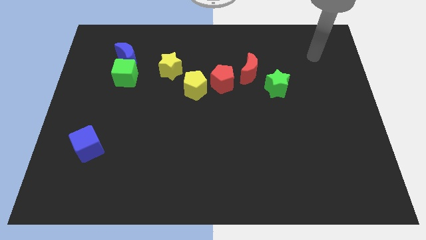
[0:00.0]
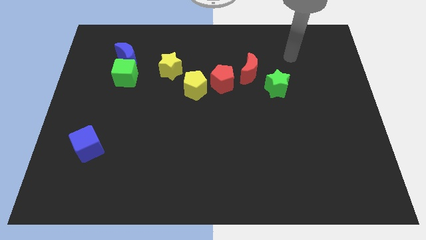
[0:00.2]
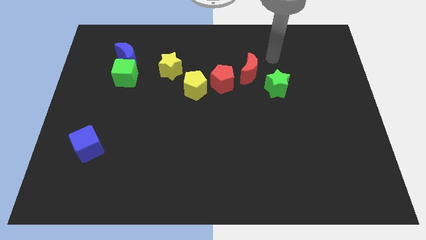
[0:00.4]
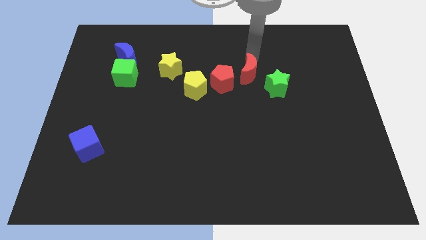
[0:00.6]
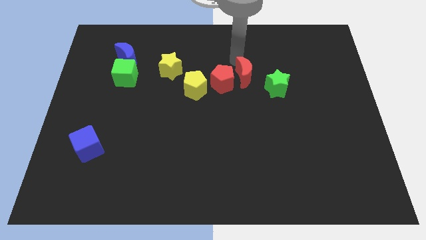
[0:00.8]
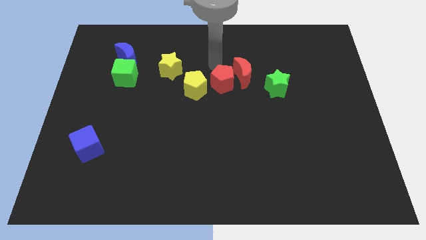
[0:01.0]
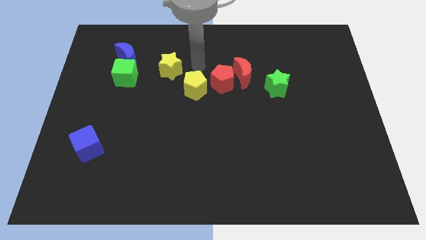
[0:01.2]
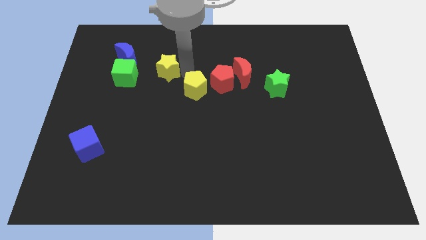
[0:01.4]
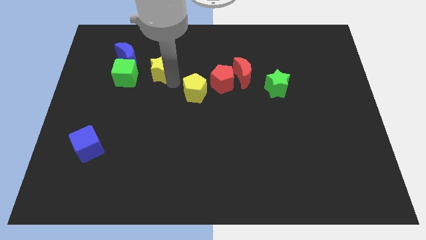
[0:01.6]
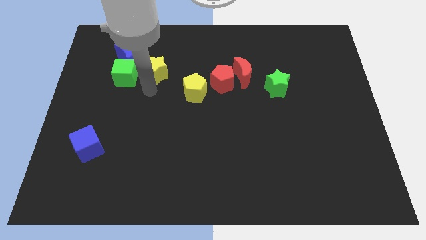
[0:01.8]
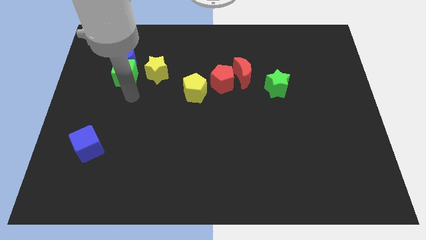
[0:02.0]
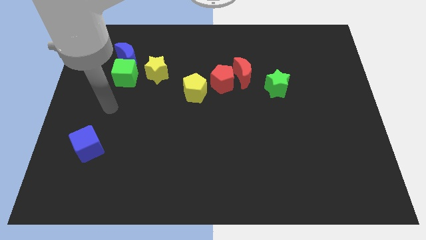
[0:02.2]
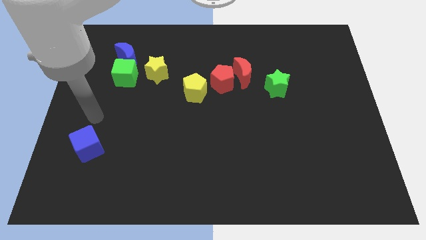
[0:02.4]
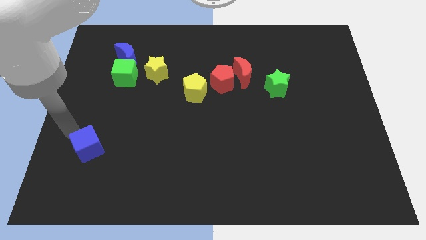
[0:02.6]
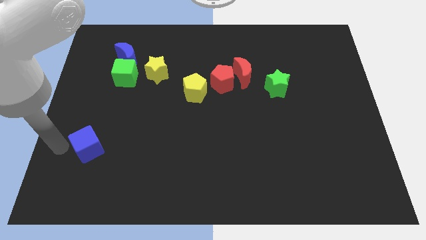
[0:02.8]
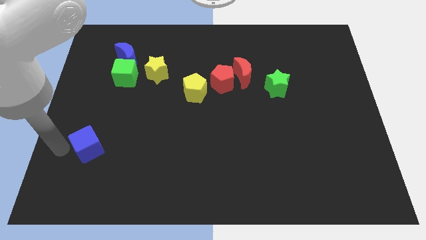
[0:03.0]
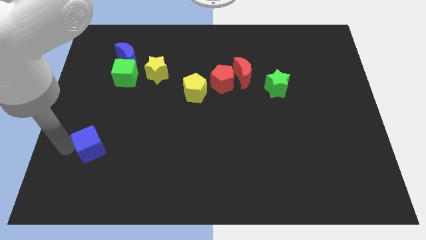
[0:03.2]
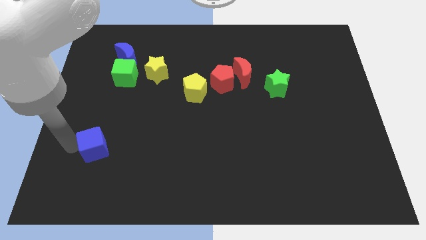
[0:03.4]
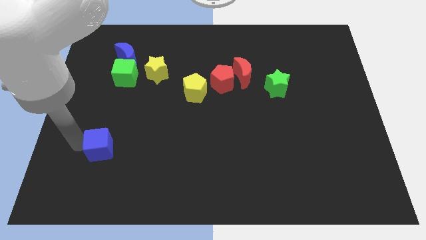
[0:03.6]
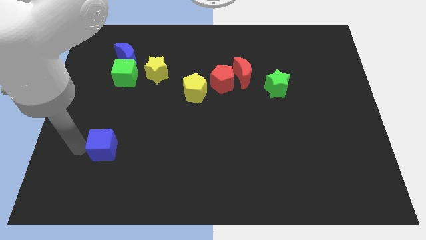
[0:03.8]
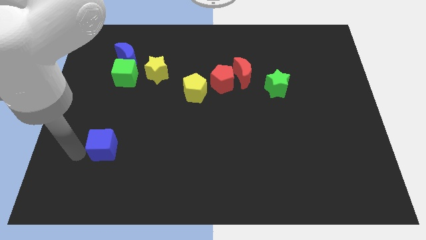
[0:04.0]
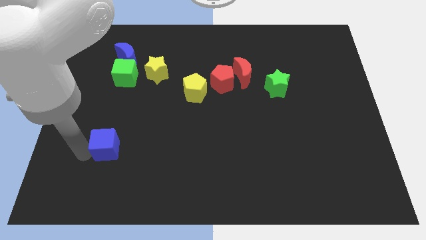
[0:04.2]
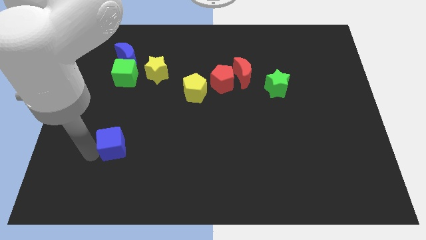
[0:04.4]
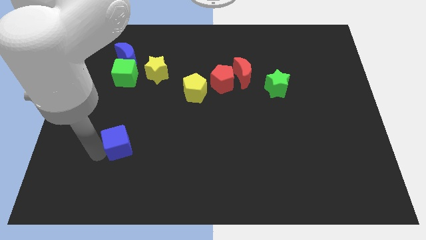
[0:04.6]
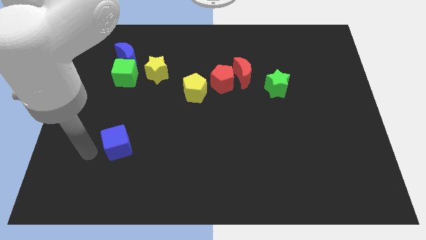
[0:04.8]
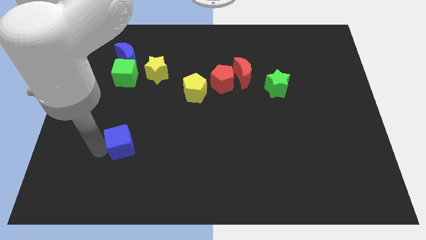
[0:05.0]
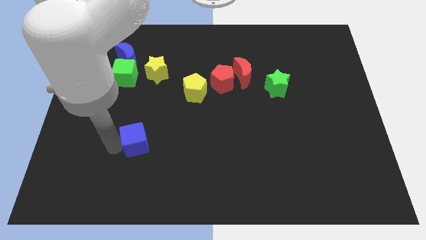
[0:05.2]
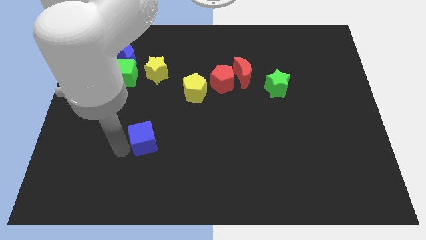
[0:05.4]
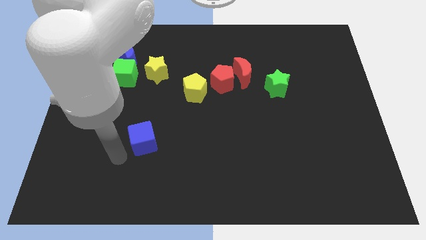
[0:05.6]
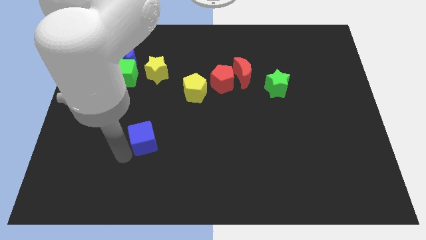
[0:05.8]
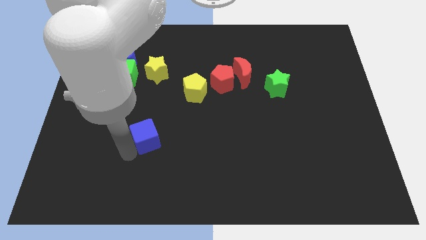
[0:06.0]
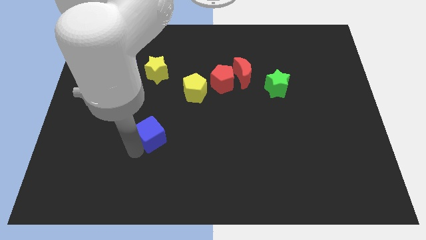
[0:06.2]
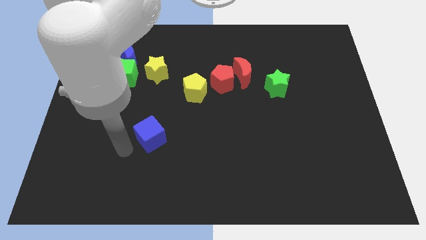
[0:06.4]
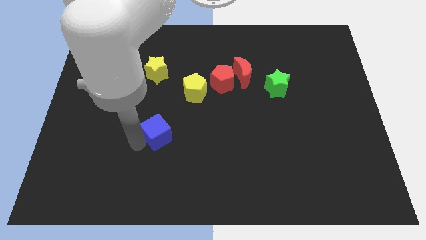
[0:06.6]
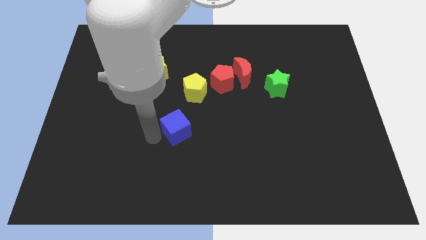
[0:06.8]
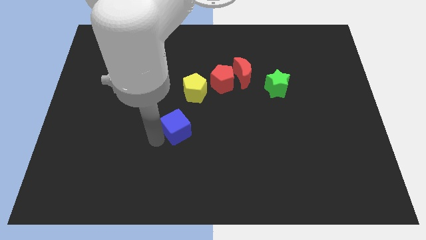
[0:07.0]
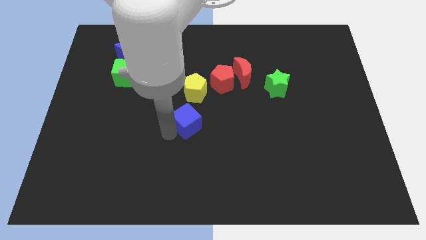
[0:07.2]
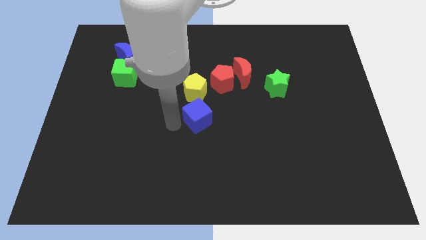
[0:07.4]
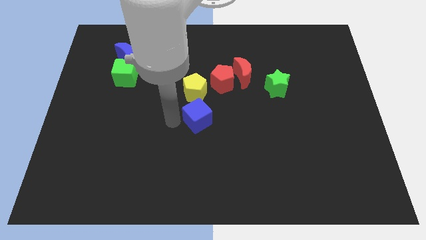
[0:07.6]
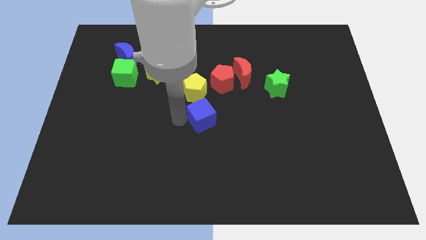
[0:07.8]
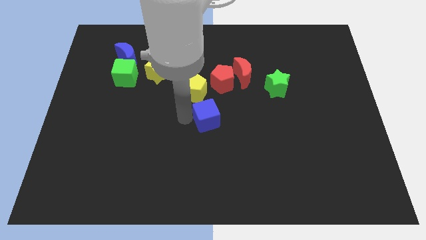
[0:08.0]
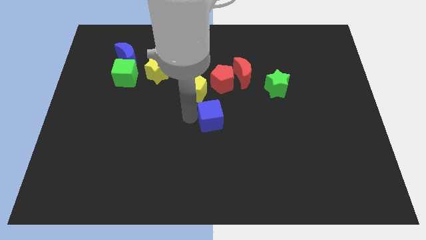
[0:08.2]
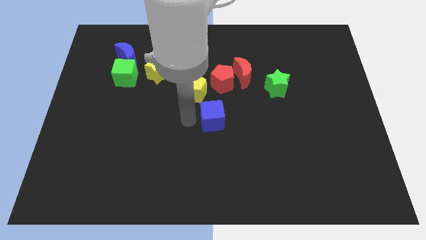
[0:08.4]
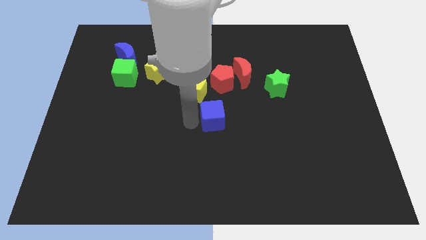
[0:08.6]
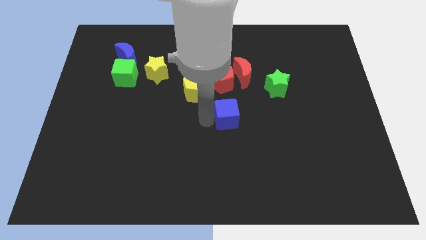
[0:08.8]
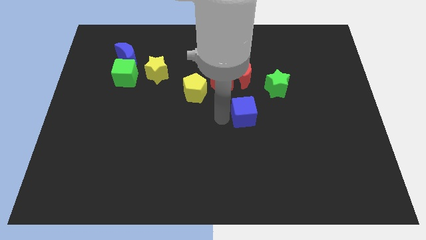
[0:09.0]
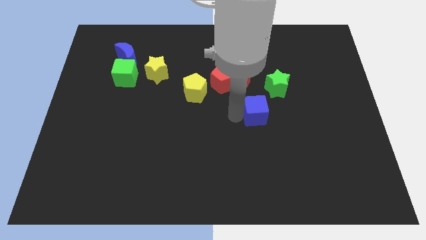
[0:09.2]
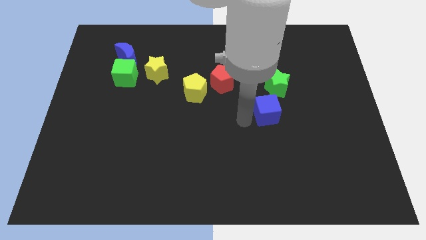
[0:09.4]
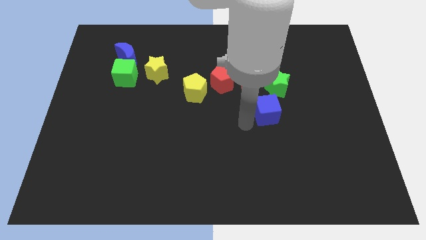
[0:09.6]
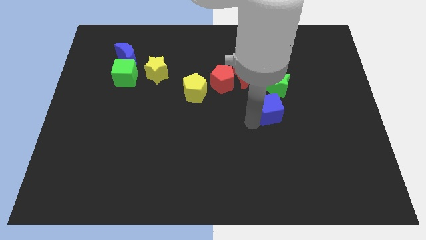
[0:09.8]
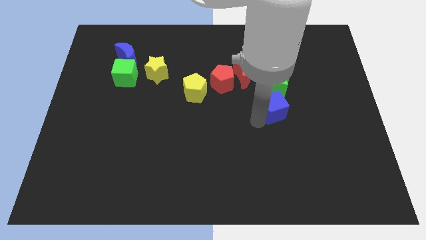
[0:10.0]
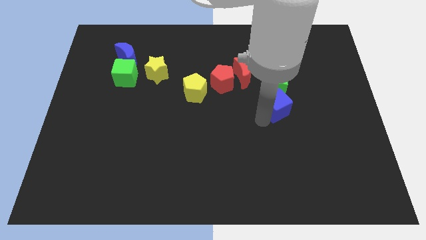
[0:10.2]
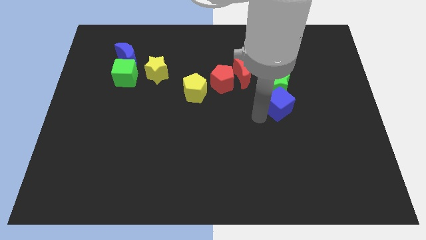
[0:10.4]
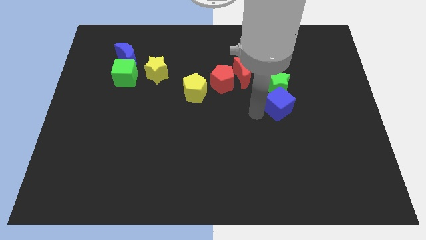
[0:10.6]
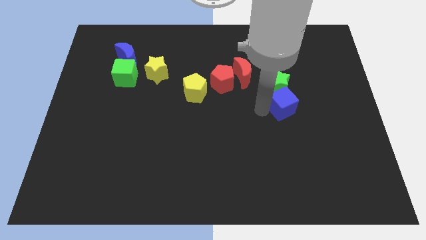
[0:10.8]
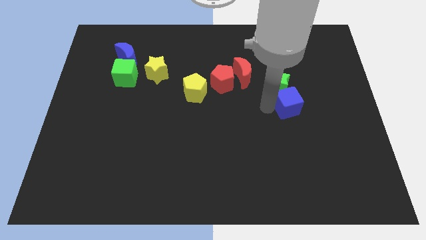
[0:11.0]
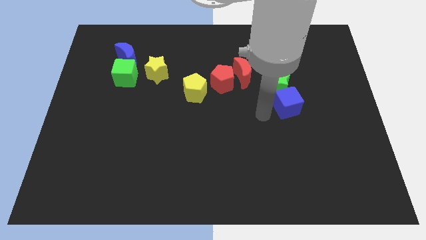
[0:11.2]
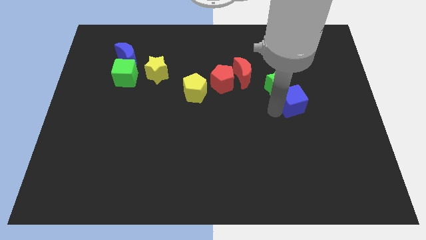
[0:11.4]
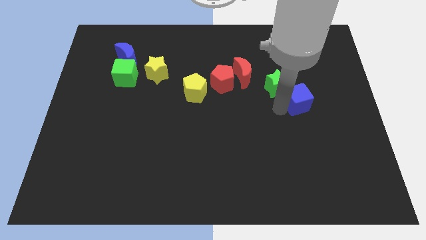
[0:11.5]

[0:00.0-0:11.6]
put the blue cube right of the green star
